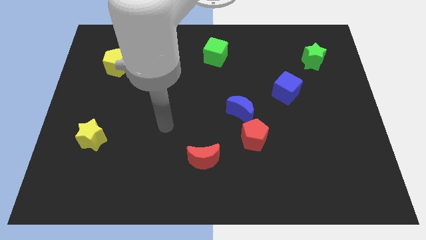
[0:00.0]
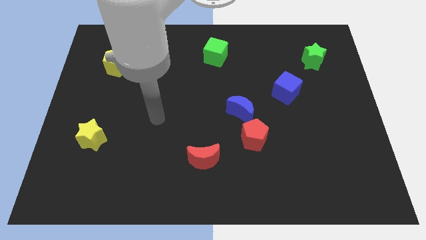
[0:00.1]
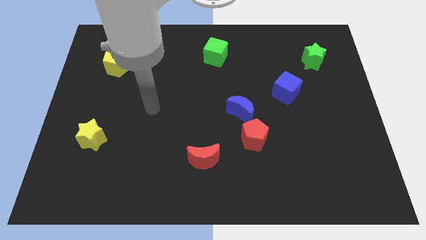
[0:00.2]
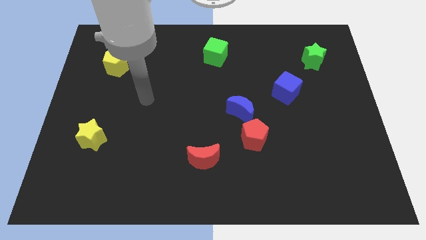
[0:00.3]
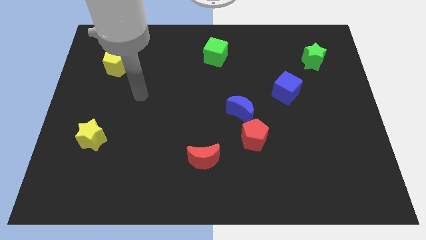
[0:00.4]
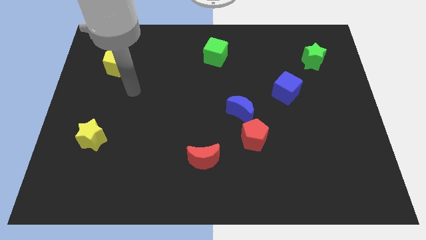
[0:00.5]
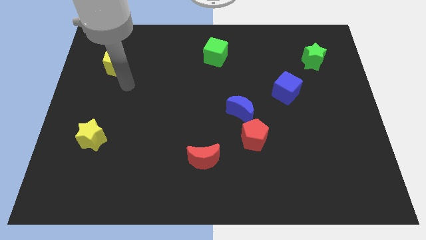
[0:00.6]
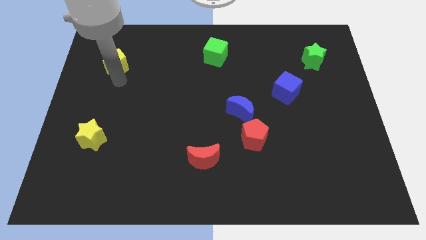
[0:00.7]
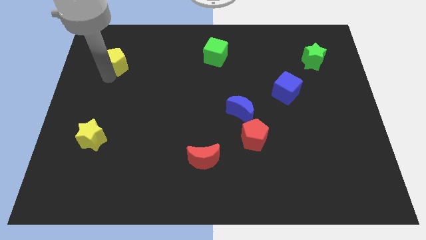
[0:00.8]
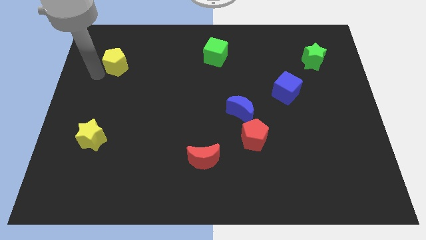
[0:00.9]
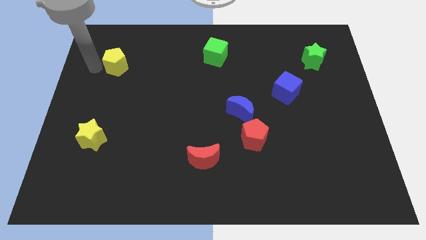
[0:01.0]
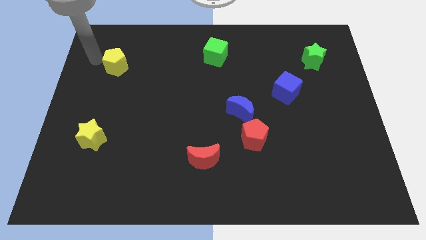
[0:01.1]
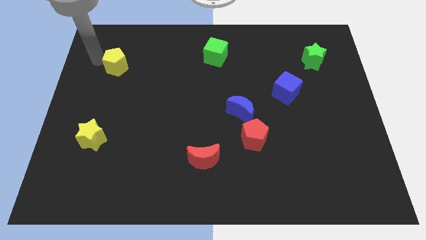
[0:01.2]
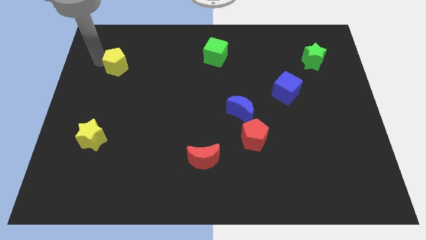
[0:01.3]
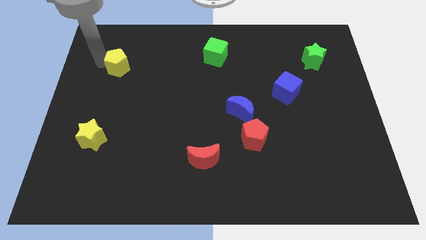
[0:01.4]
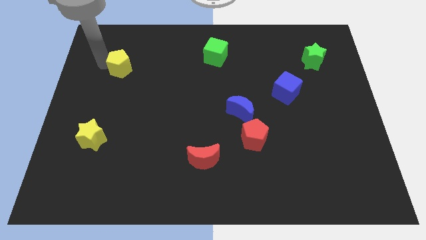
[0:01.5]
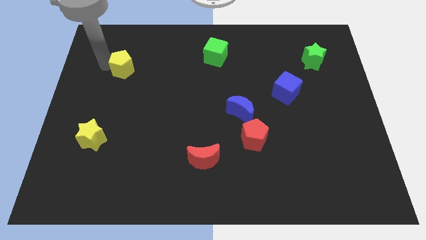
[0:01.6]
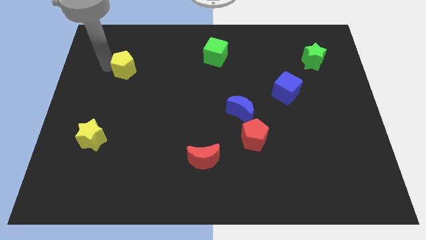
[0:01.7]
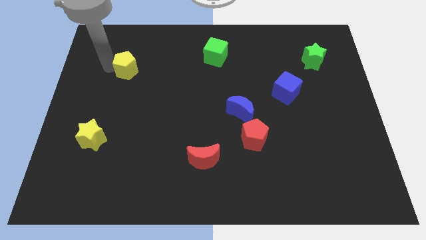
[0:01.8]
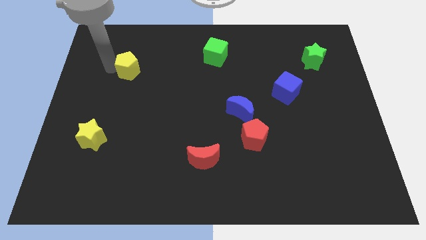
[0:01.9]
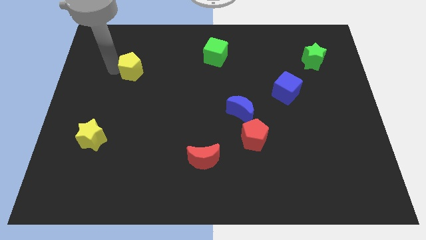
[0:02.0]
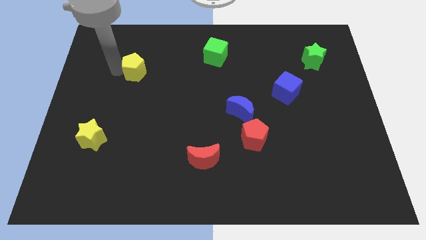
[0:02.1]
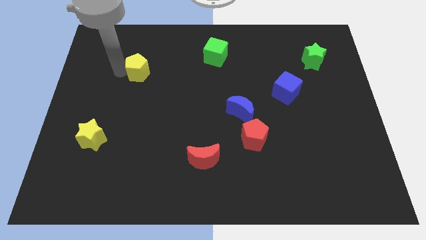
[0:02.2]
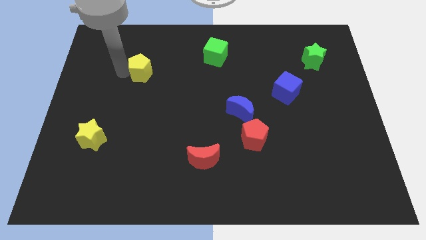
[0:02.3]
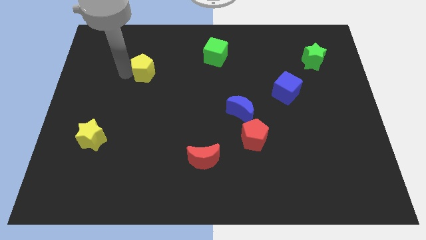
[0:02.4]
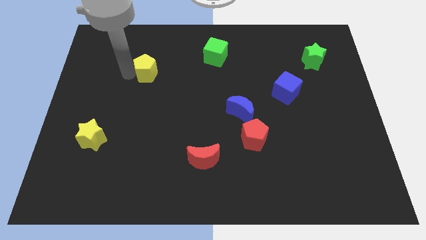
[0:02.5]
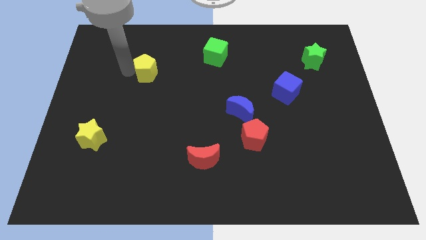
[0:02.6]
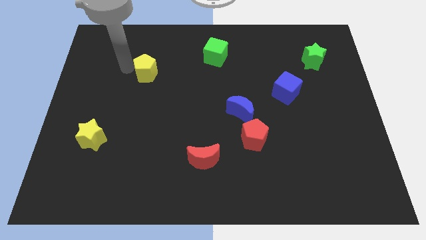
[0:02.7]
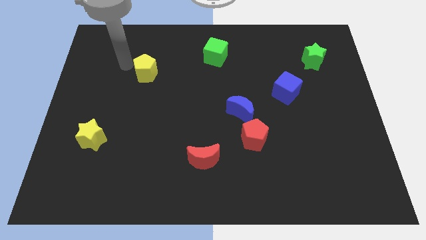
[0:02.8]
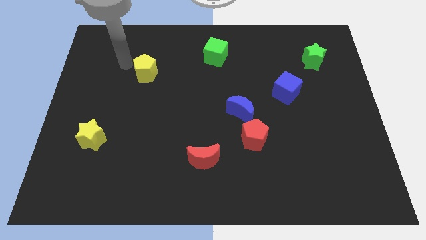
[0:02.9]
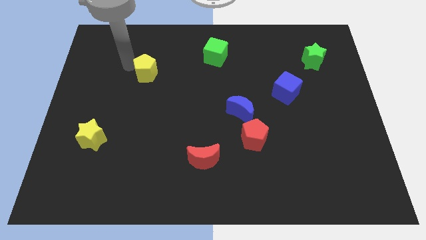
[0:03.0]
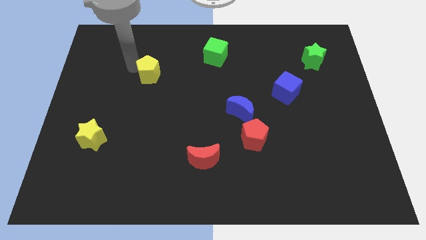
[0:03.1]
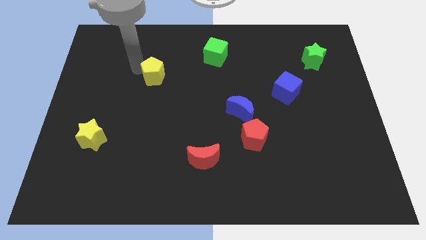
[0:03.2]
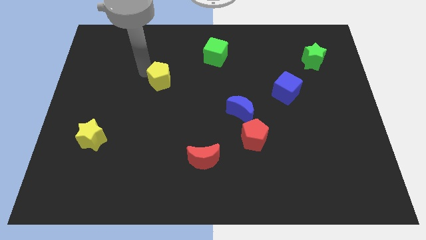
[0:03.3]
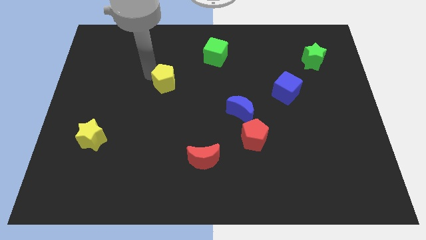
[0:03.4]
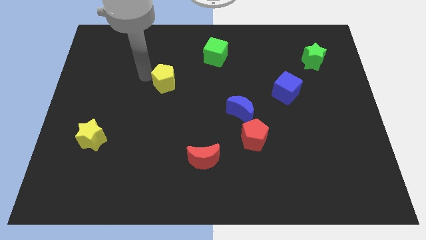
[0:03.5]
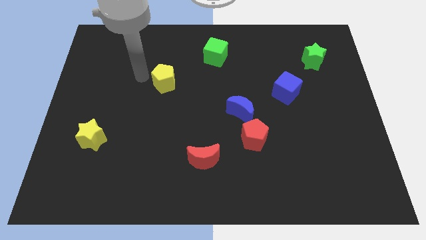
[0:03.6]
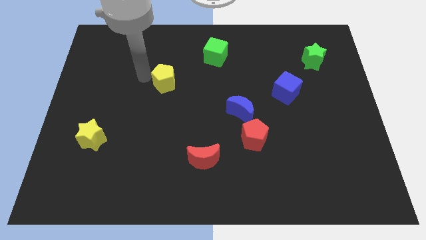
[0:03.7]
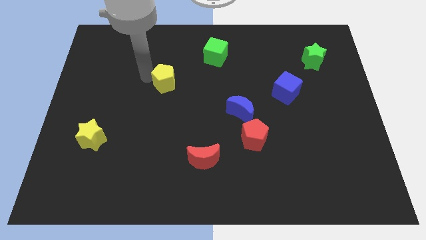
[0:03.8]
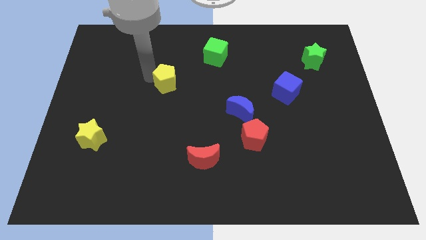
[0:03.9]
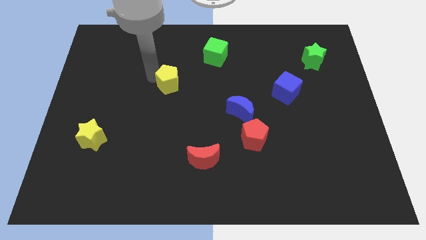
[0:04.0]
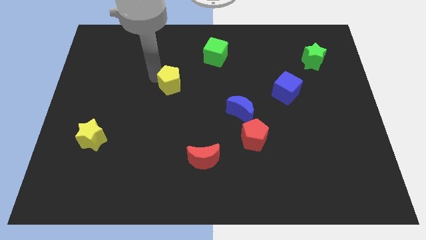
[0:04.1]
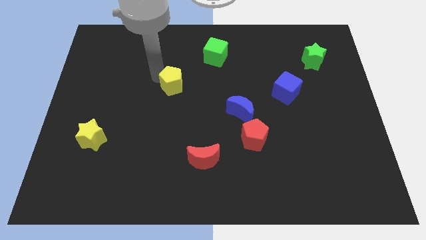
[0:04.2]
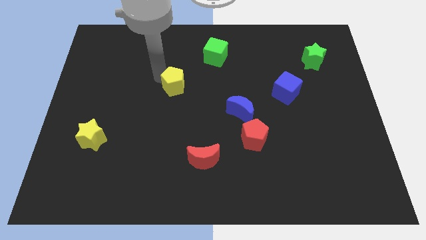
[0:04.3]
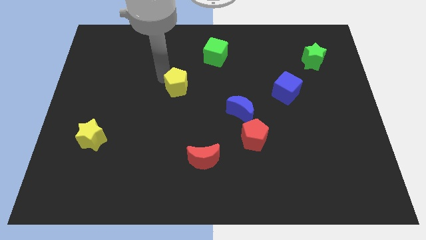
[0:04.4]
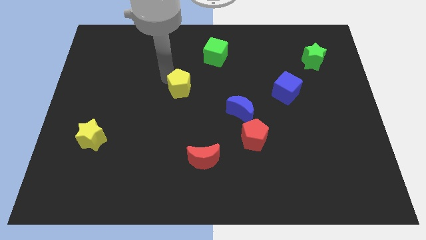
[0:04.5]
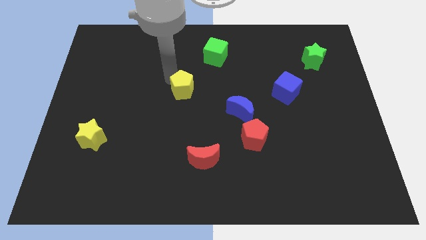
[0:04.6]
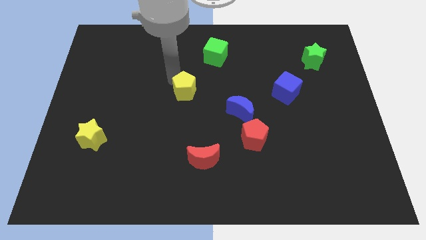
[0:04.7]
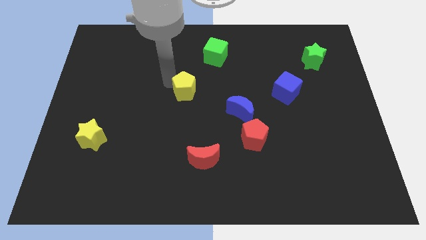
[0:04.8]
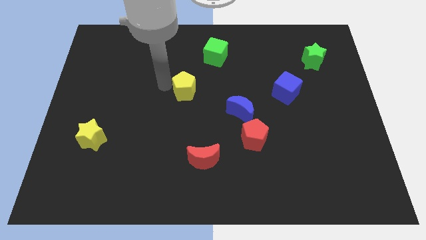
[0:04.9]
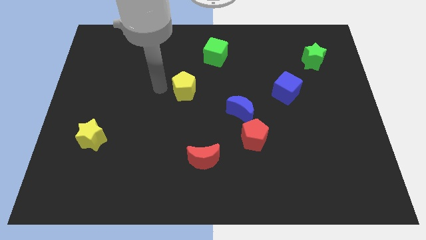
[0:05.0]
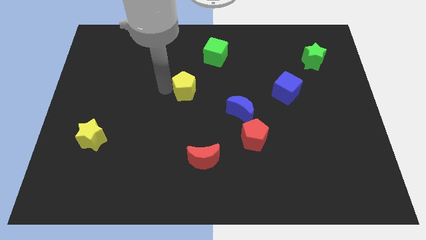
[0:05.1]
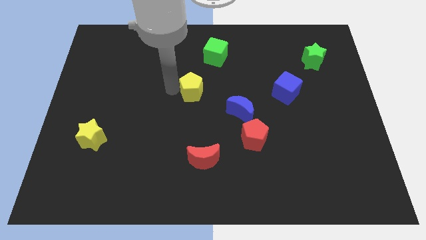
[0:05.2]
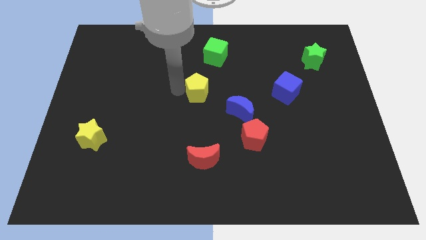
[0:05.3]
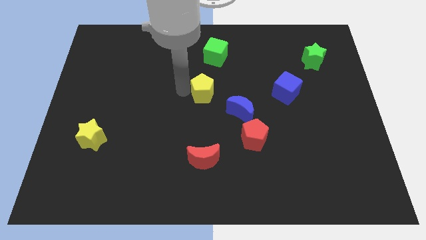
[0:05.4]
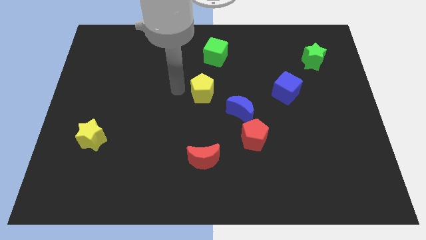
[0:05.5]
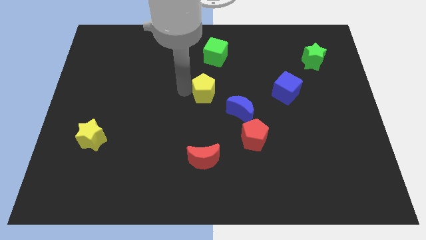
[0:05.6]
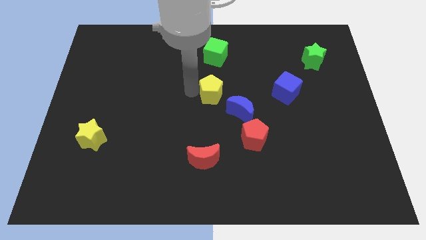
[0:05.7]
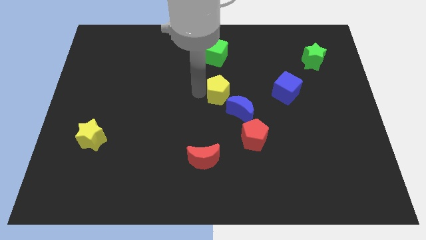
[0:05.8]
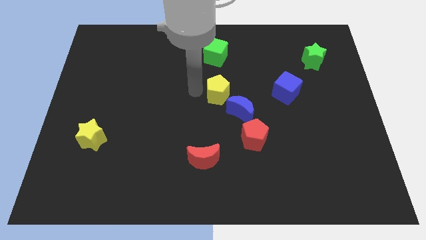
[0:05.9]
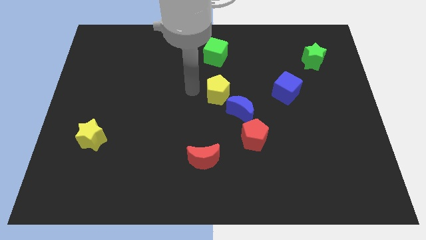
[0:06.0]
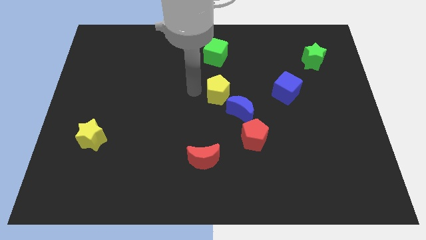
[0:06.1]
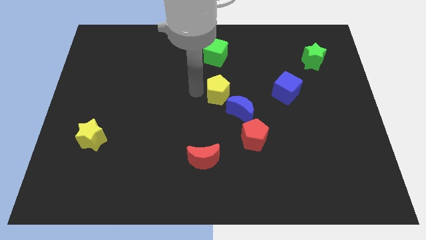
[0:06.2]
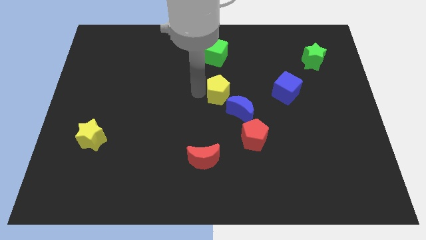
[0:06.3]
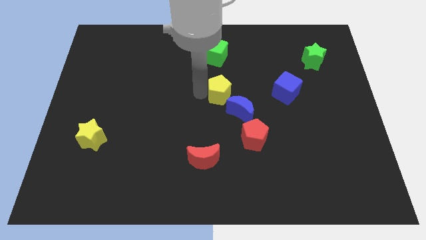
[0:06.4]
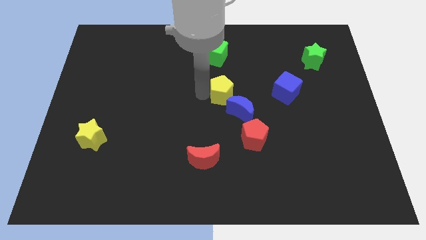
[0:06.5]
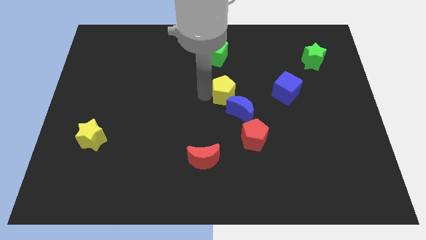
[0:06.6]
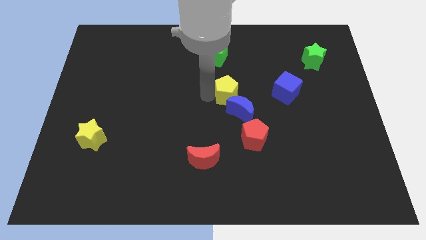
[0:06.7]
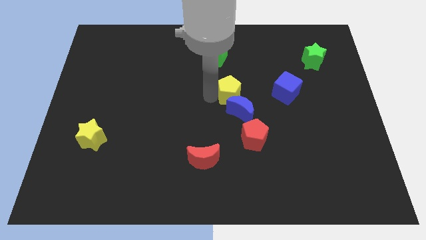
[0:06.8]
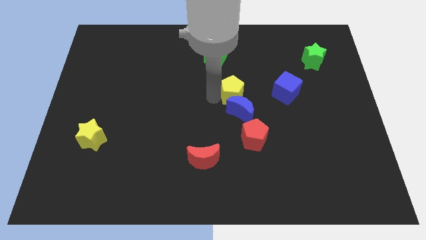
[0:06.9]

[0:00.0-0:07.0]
slide the yellow pentagon to the top side of the red pentagon
